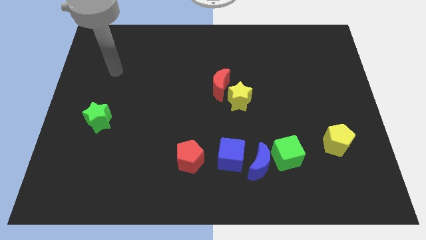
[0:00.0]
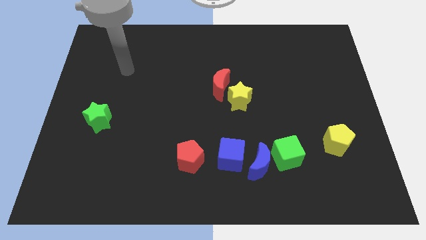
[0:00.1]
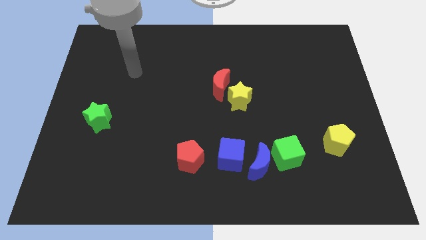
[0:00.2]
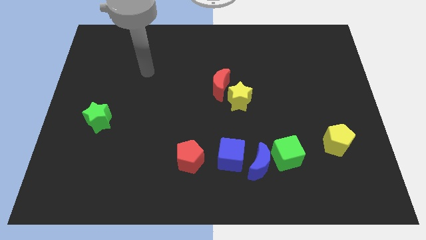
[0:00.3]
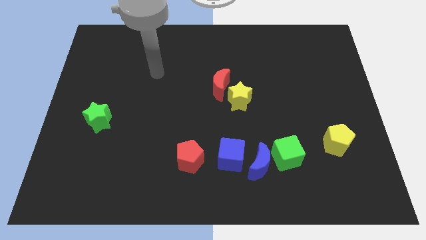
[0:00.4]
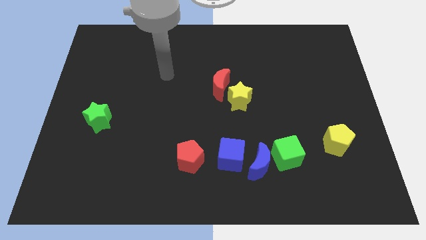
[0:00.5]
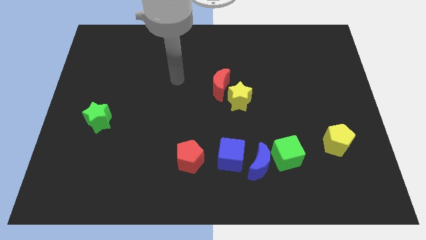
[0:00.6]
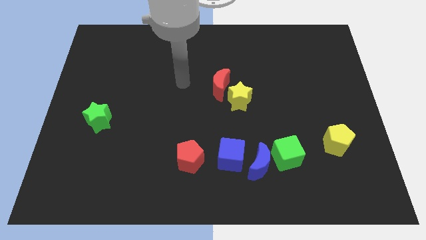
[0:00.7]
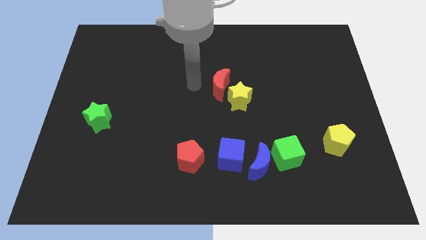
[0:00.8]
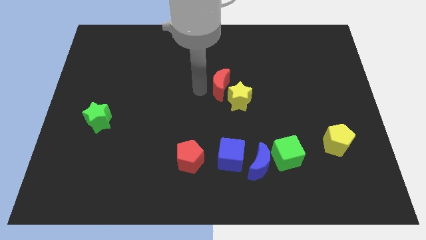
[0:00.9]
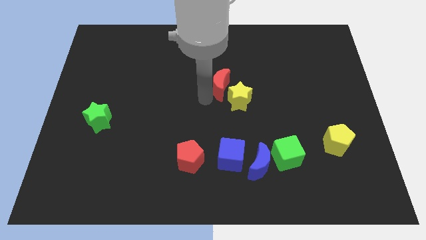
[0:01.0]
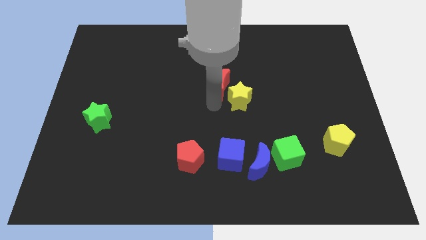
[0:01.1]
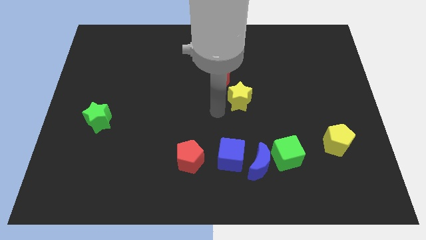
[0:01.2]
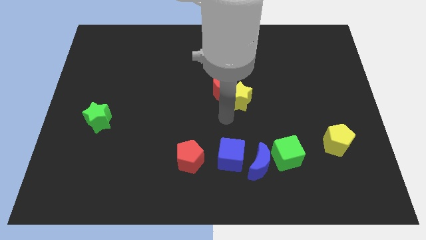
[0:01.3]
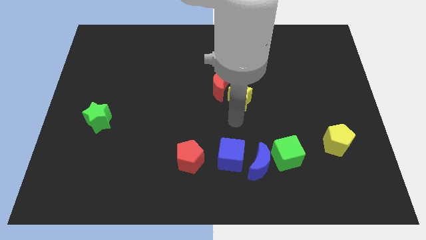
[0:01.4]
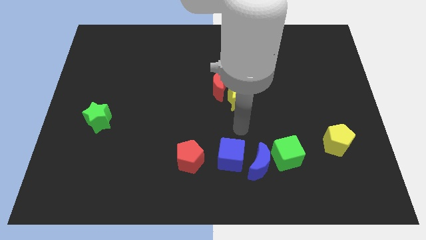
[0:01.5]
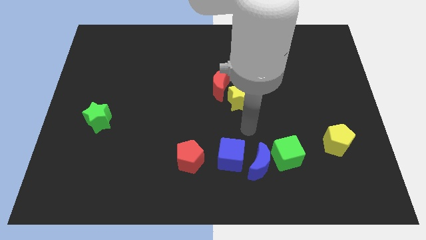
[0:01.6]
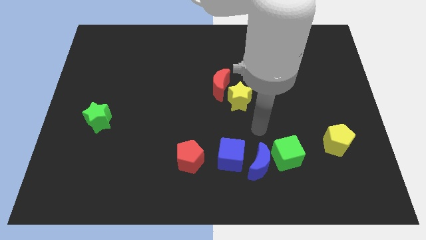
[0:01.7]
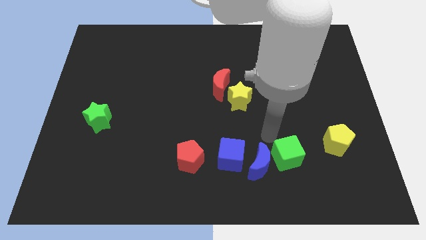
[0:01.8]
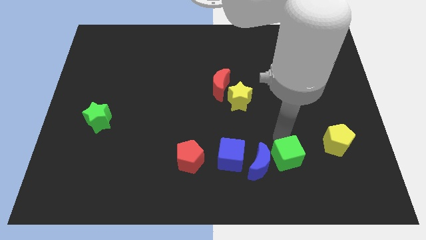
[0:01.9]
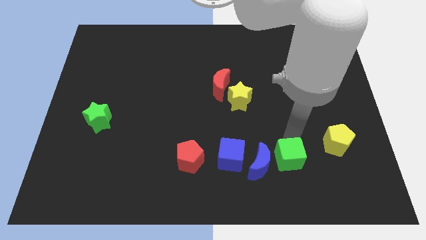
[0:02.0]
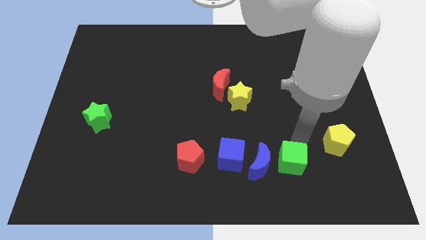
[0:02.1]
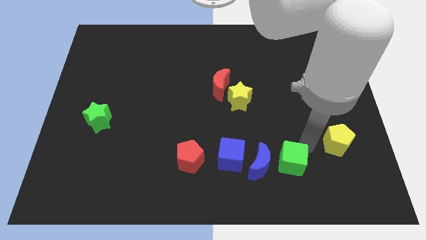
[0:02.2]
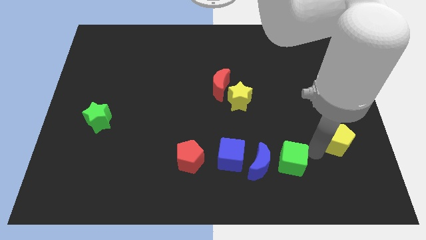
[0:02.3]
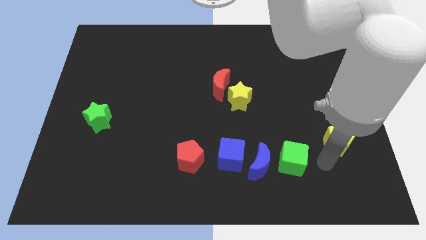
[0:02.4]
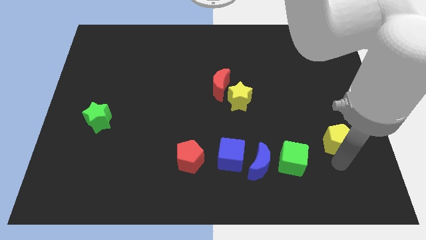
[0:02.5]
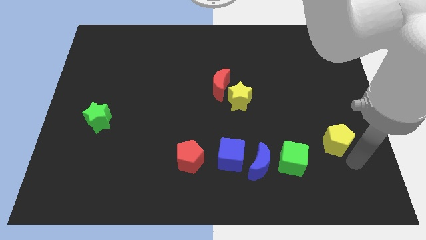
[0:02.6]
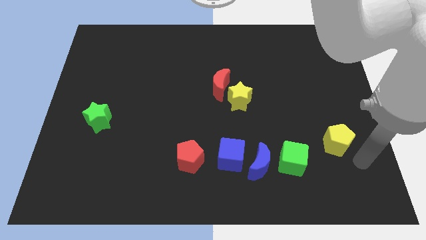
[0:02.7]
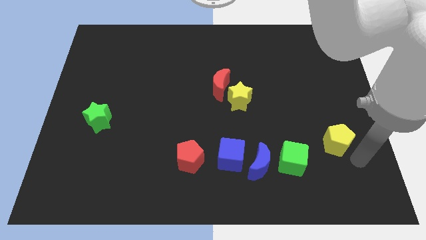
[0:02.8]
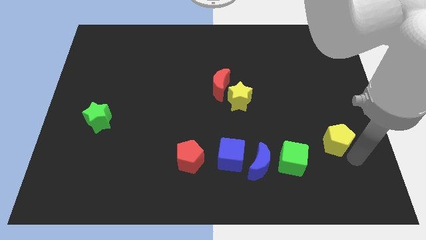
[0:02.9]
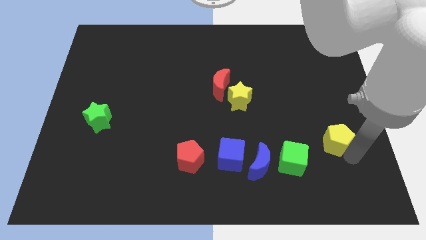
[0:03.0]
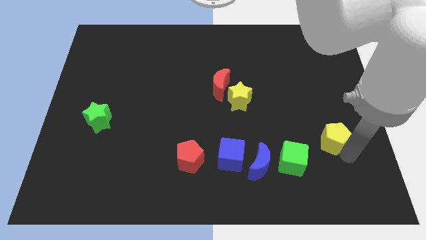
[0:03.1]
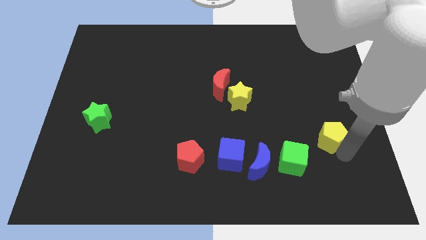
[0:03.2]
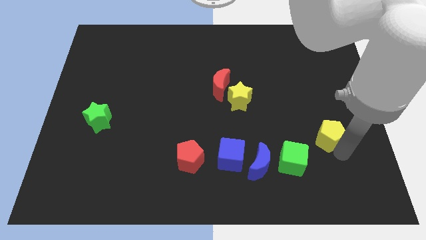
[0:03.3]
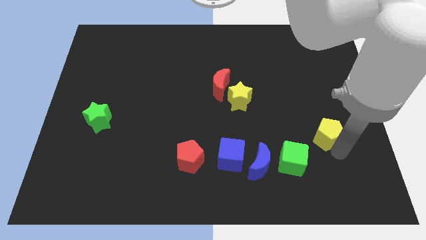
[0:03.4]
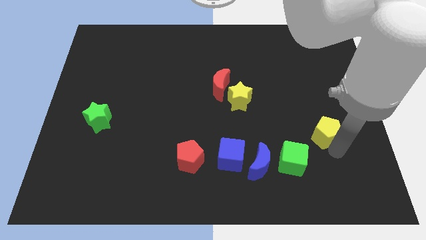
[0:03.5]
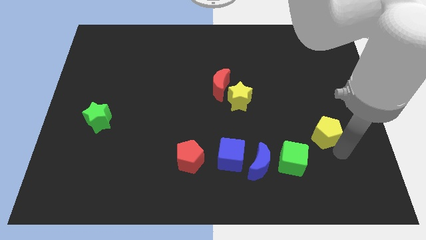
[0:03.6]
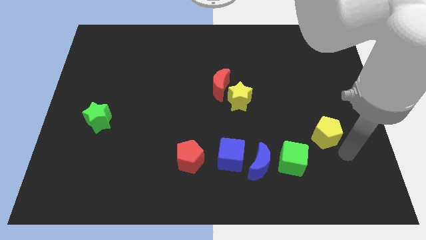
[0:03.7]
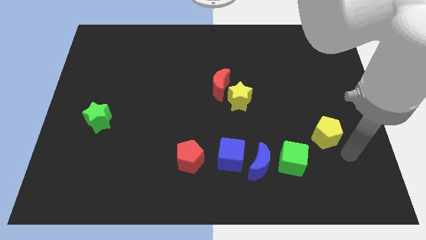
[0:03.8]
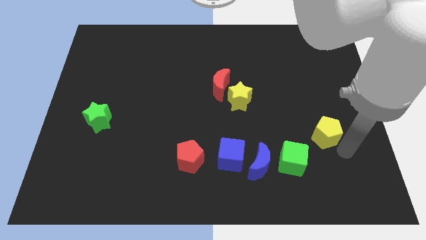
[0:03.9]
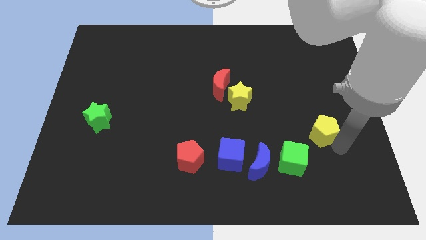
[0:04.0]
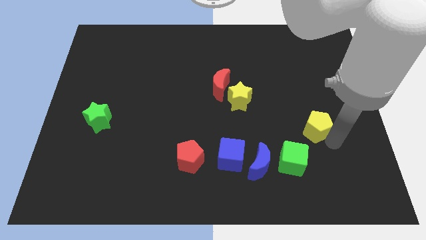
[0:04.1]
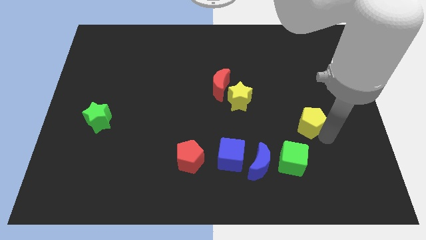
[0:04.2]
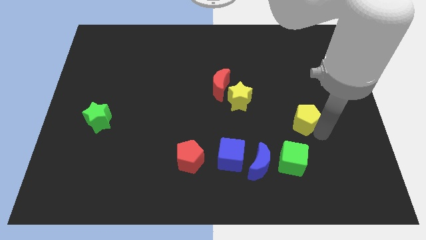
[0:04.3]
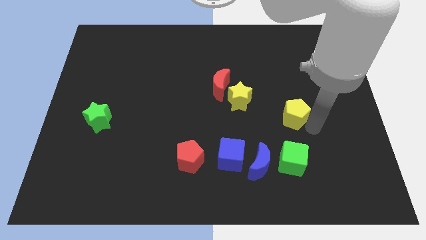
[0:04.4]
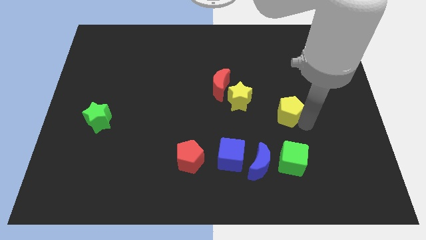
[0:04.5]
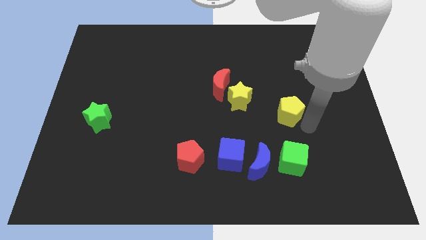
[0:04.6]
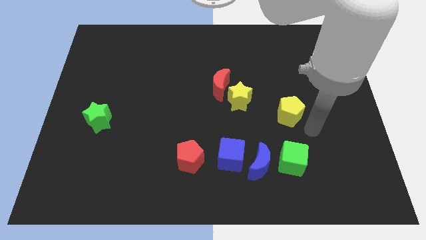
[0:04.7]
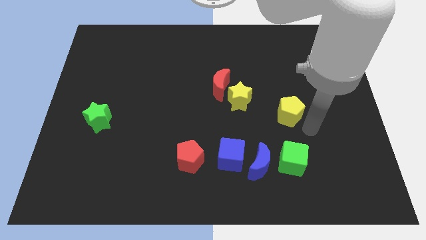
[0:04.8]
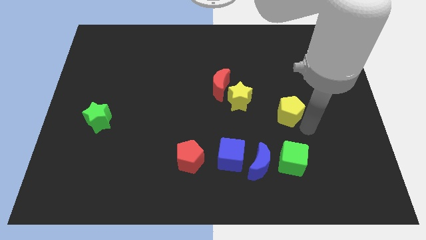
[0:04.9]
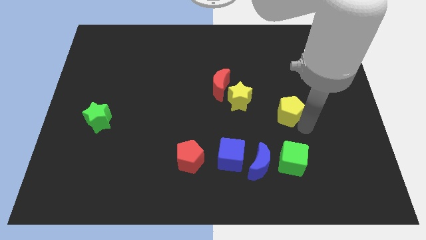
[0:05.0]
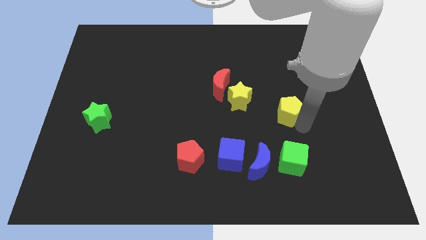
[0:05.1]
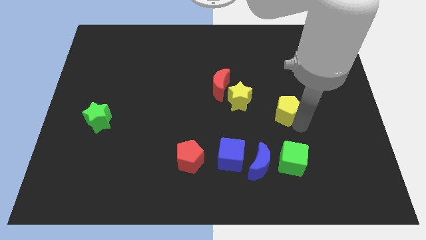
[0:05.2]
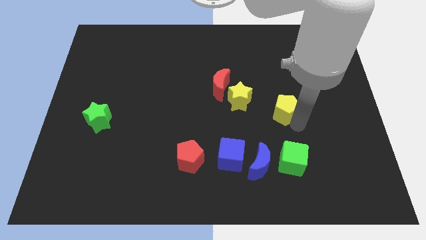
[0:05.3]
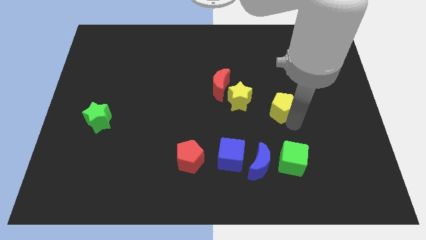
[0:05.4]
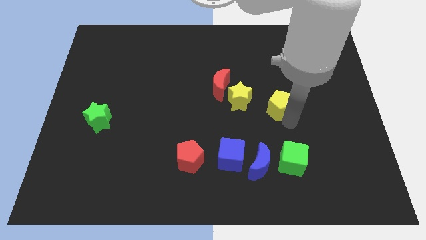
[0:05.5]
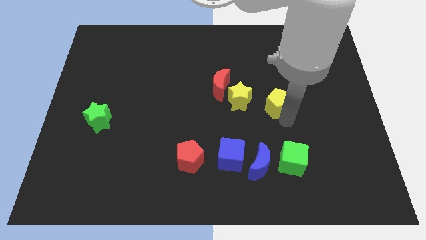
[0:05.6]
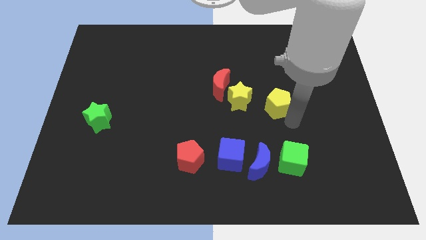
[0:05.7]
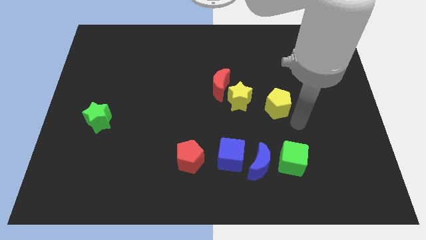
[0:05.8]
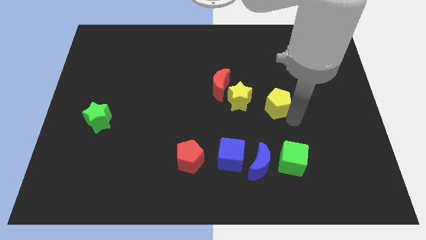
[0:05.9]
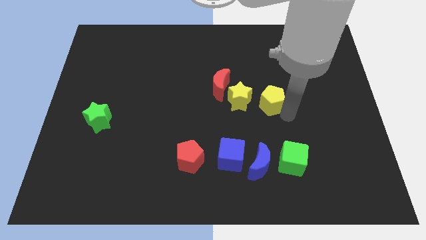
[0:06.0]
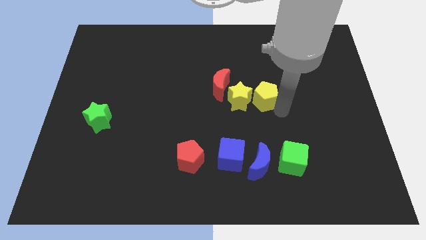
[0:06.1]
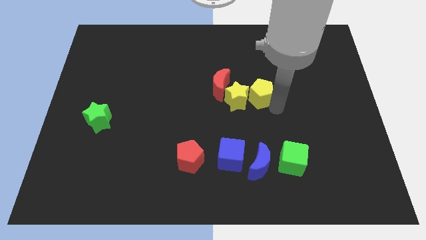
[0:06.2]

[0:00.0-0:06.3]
move the yellow pentagon upwards and then left

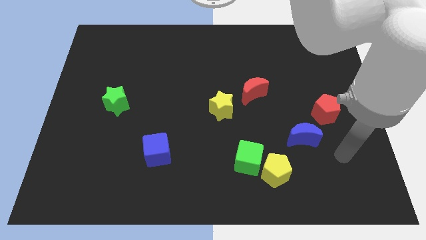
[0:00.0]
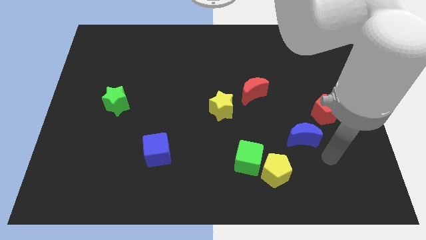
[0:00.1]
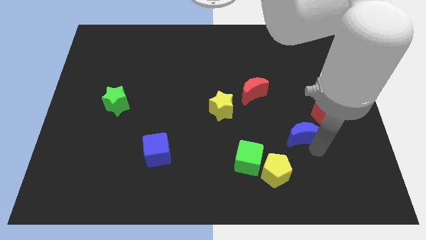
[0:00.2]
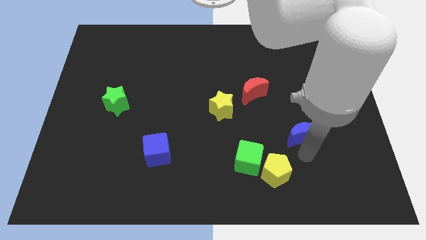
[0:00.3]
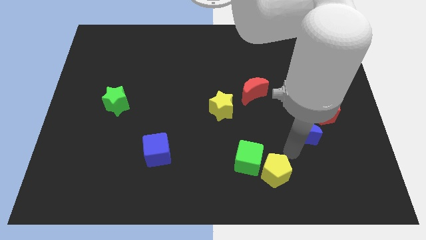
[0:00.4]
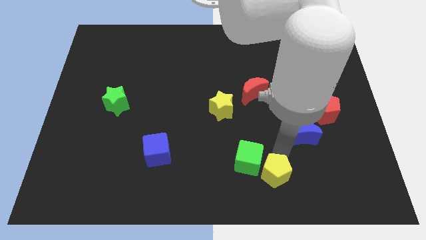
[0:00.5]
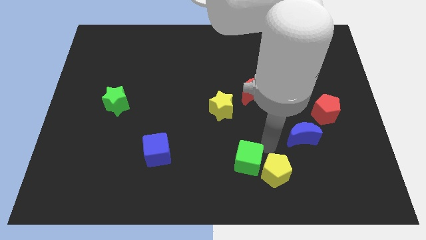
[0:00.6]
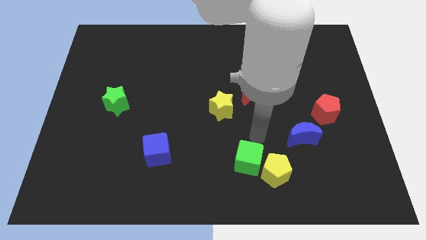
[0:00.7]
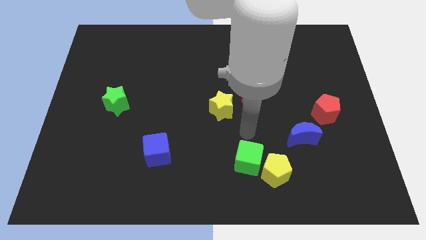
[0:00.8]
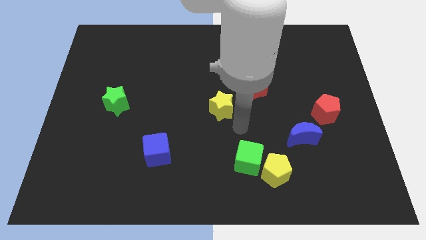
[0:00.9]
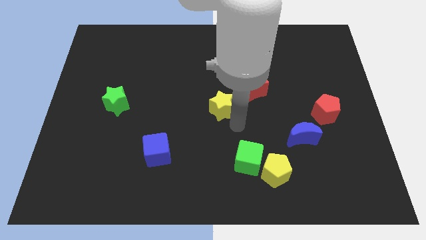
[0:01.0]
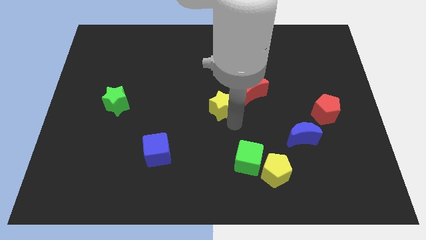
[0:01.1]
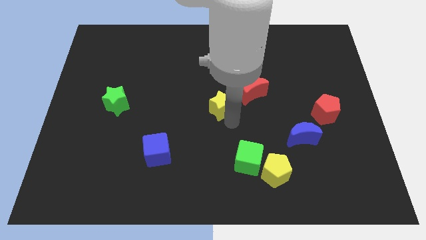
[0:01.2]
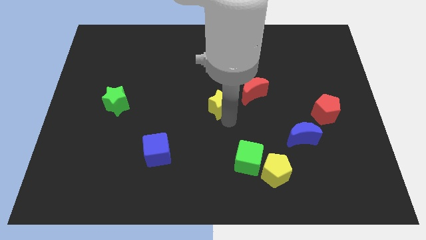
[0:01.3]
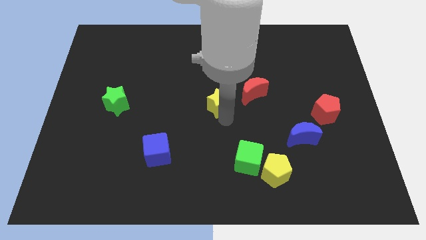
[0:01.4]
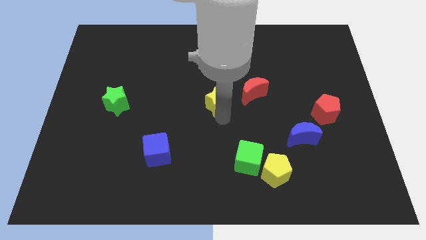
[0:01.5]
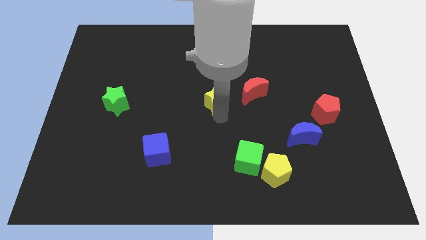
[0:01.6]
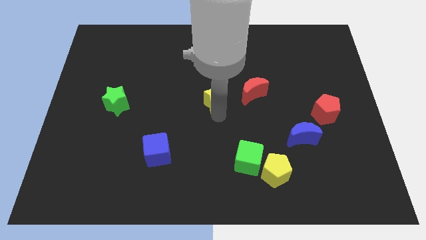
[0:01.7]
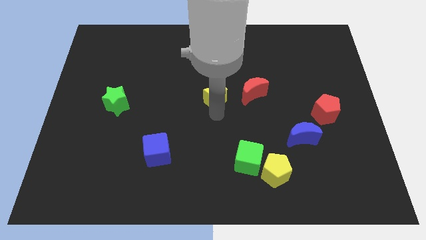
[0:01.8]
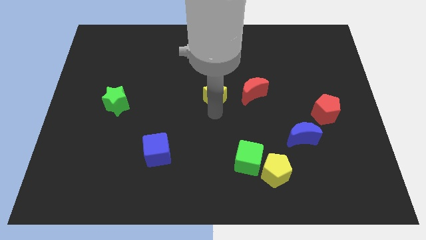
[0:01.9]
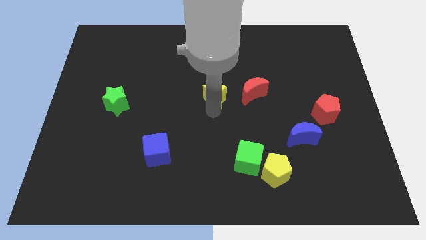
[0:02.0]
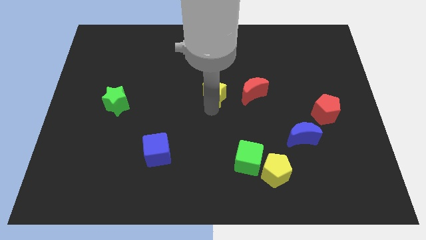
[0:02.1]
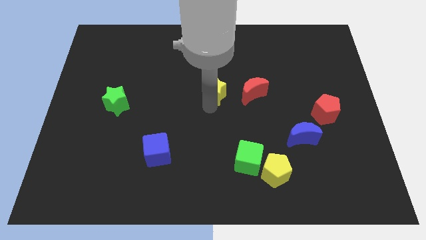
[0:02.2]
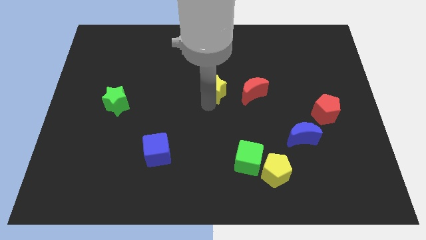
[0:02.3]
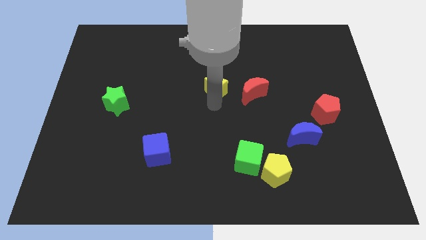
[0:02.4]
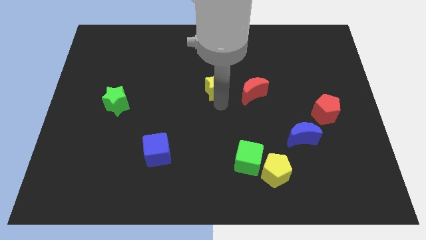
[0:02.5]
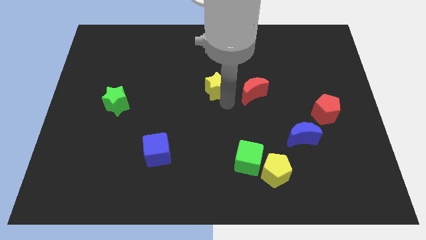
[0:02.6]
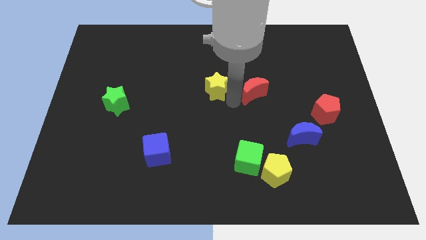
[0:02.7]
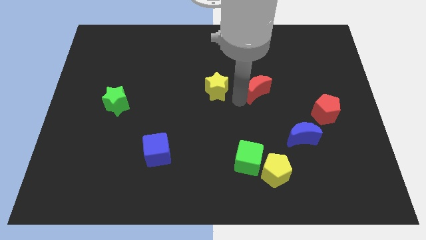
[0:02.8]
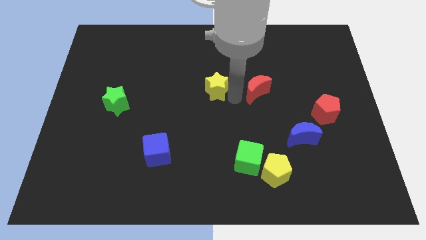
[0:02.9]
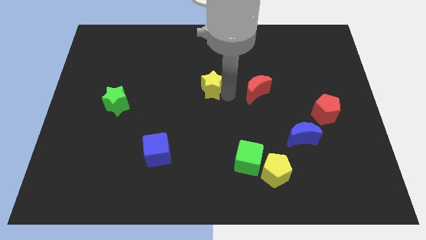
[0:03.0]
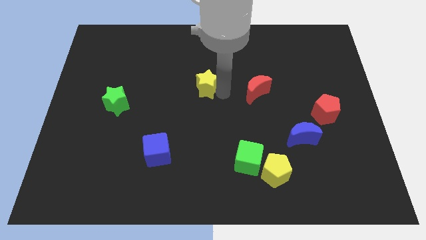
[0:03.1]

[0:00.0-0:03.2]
move the yellow star a bit upwards and left diagonally
